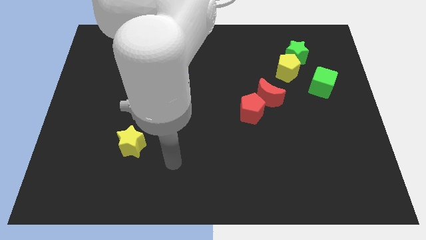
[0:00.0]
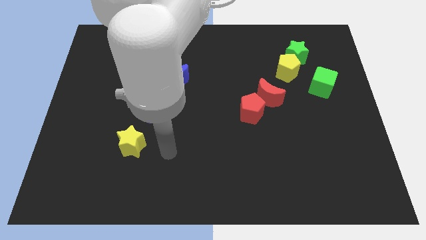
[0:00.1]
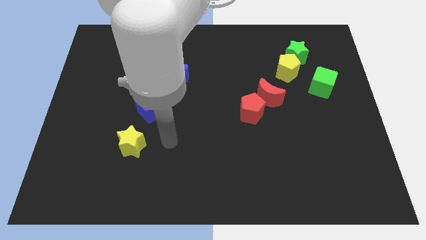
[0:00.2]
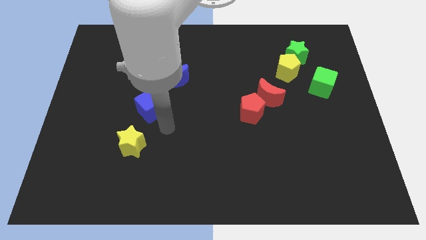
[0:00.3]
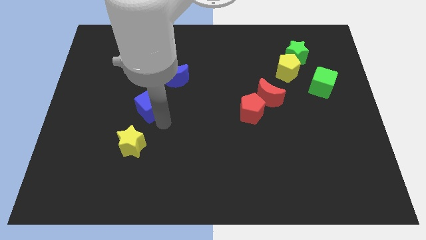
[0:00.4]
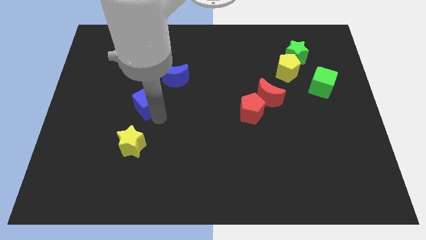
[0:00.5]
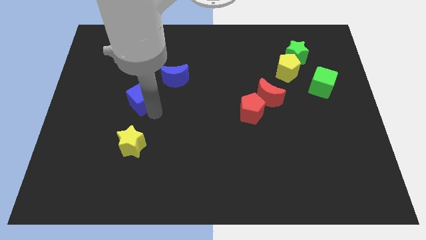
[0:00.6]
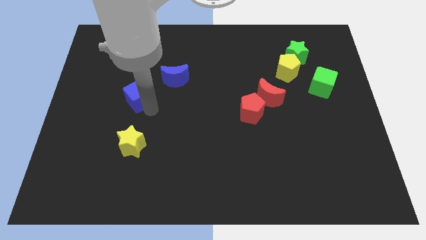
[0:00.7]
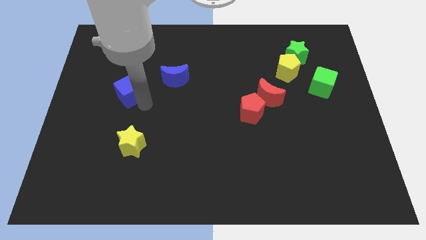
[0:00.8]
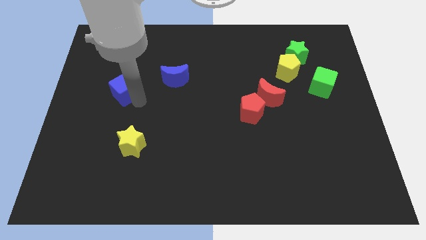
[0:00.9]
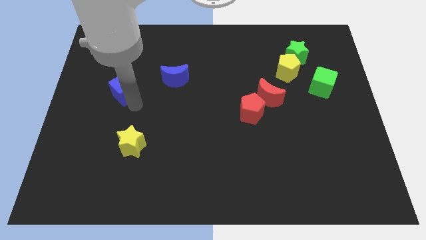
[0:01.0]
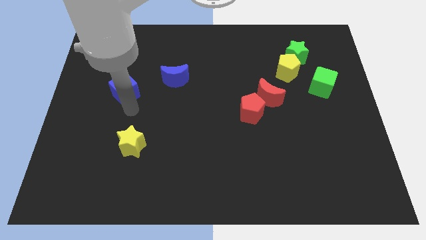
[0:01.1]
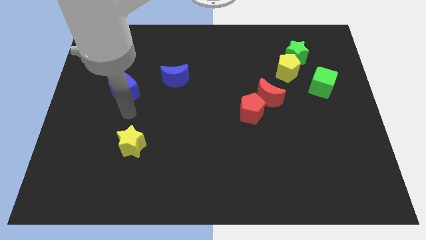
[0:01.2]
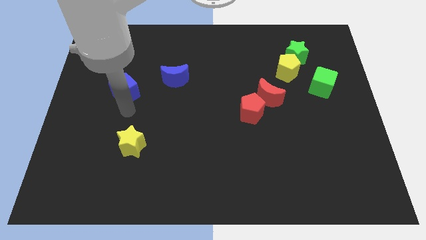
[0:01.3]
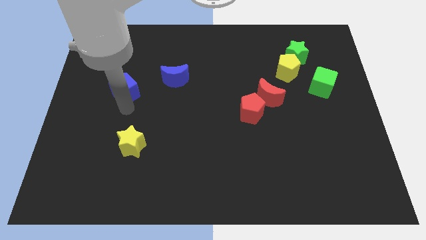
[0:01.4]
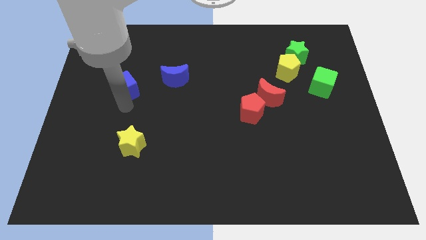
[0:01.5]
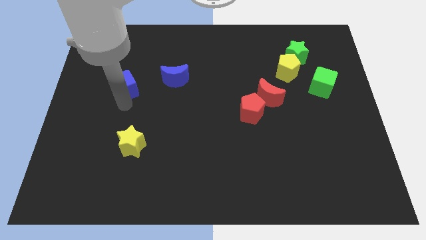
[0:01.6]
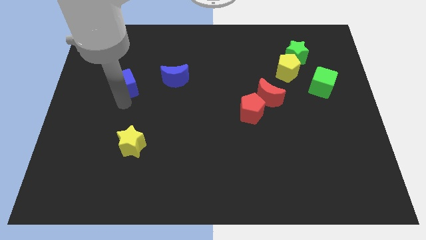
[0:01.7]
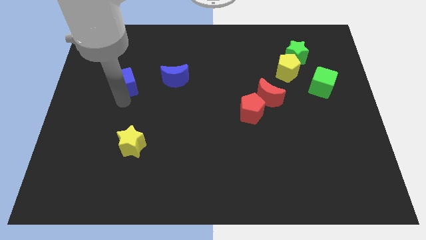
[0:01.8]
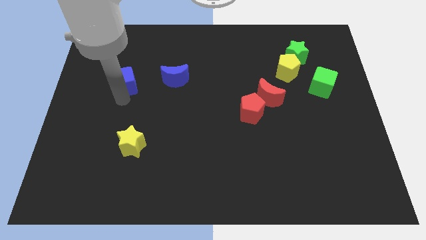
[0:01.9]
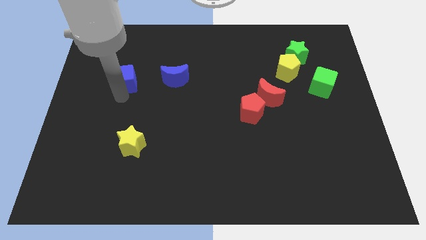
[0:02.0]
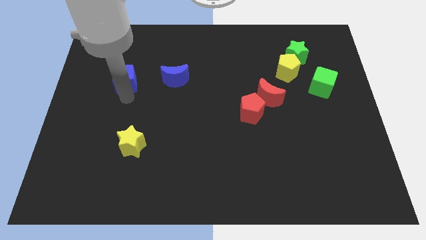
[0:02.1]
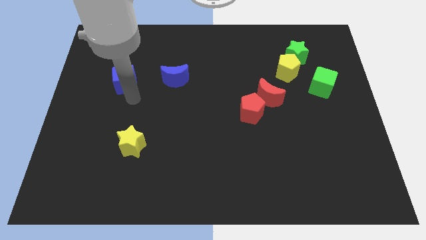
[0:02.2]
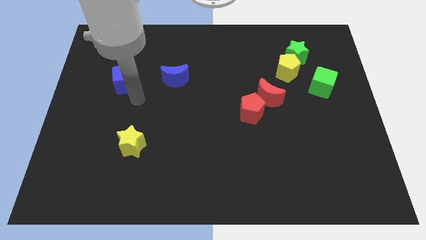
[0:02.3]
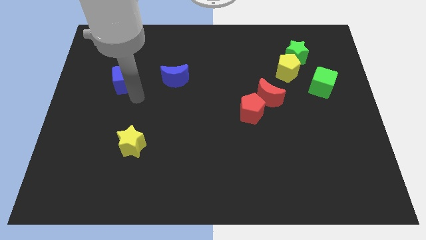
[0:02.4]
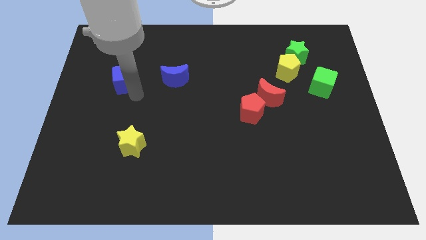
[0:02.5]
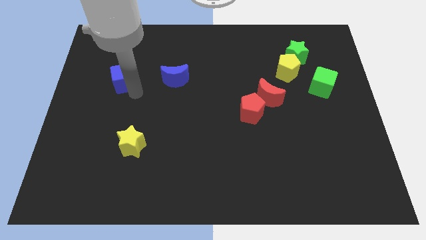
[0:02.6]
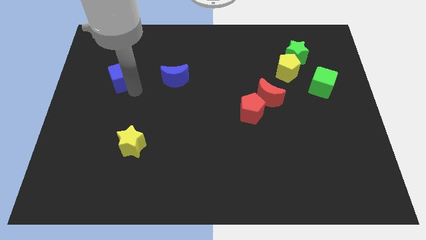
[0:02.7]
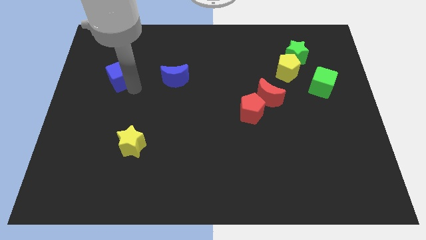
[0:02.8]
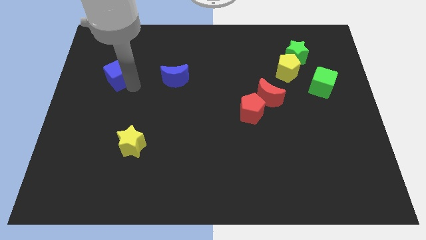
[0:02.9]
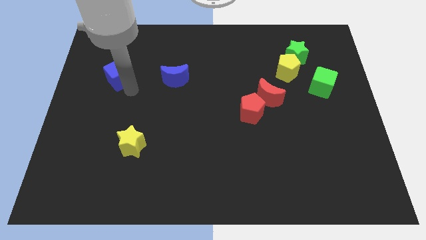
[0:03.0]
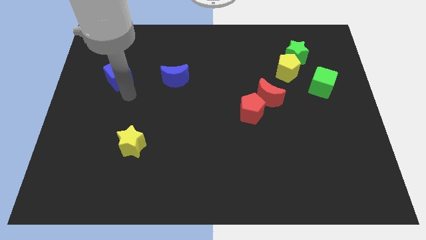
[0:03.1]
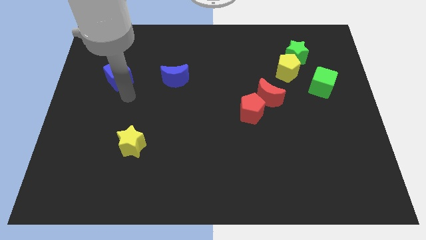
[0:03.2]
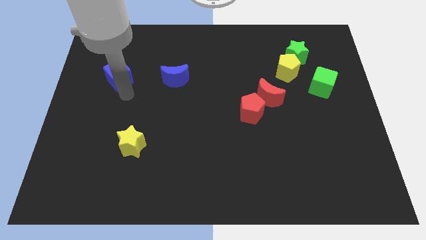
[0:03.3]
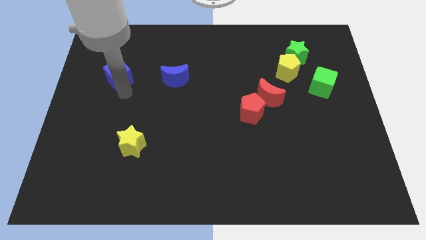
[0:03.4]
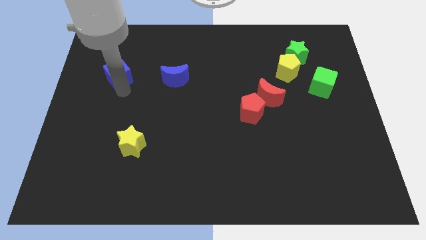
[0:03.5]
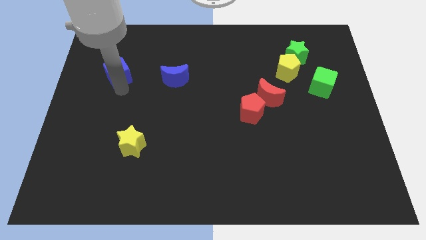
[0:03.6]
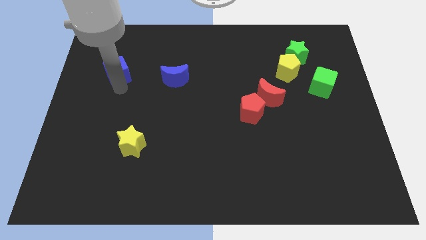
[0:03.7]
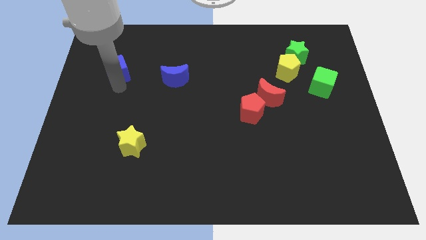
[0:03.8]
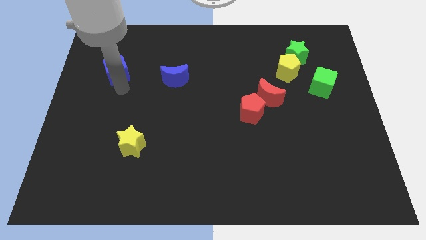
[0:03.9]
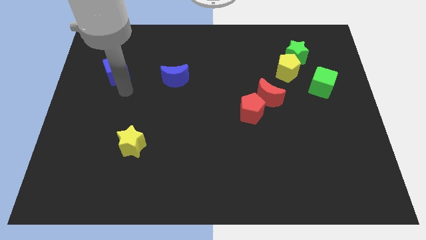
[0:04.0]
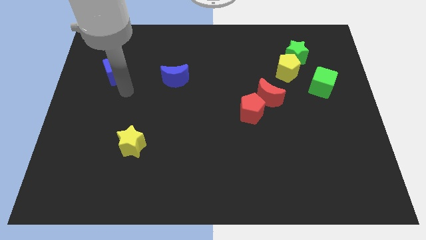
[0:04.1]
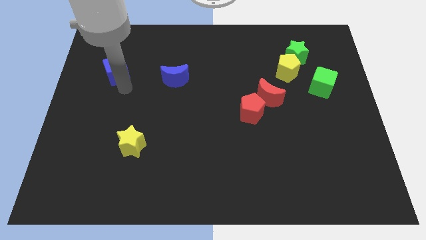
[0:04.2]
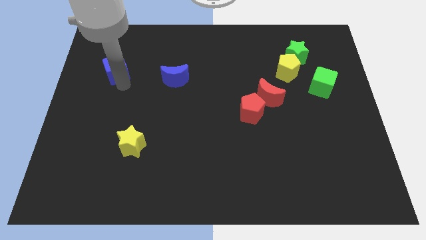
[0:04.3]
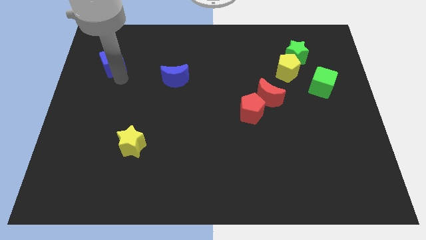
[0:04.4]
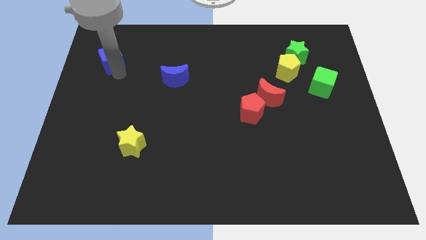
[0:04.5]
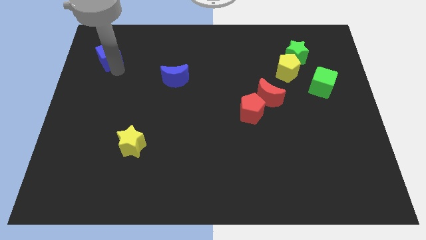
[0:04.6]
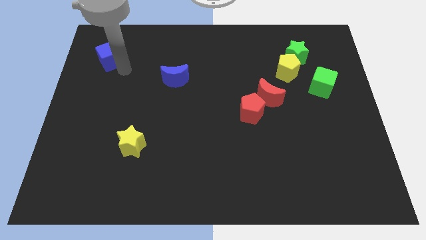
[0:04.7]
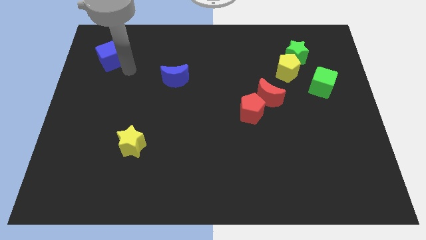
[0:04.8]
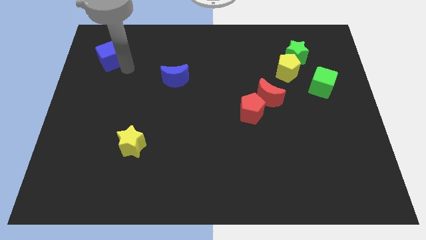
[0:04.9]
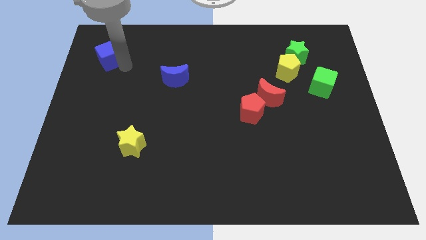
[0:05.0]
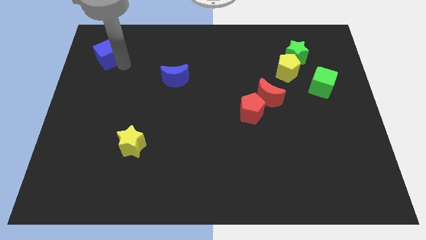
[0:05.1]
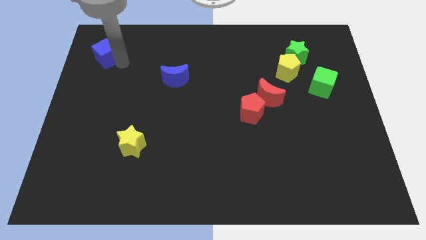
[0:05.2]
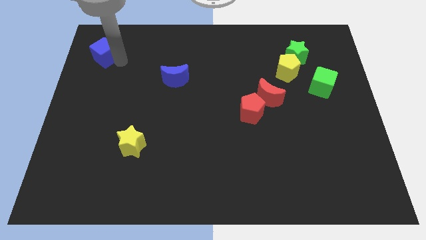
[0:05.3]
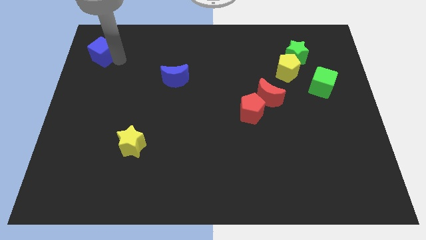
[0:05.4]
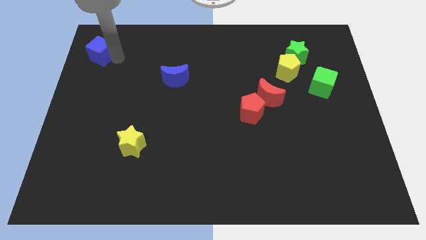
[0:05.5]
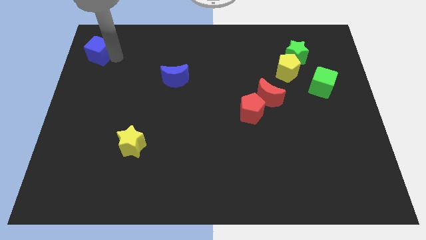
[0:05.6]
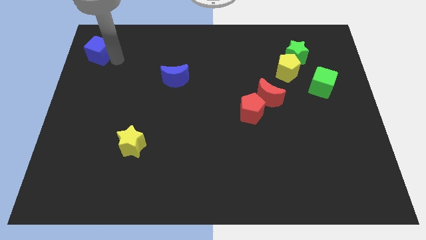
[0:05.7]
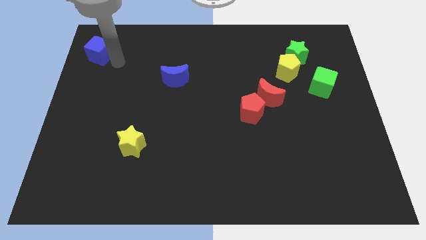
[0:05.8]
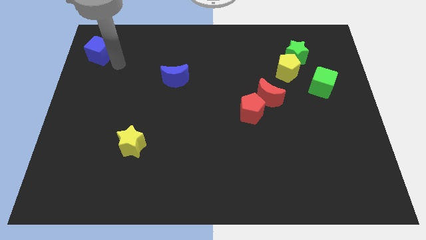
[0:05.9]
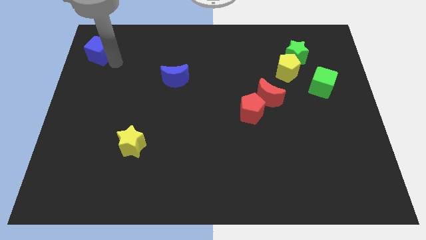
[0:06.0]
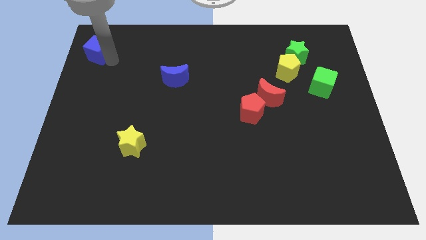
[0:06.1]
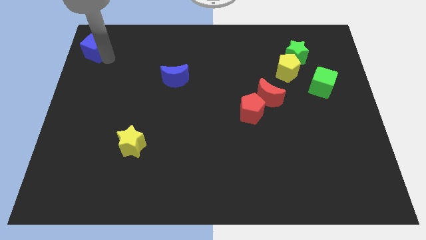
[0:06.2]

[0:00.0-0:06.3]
push the blue cube to the upper left corner

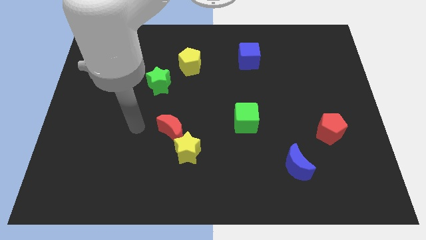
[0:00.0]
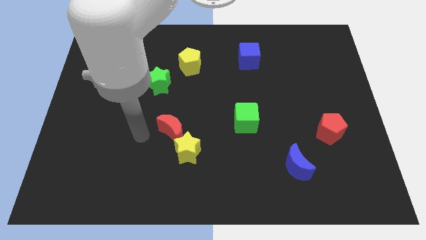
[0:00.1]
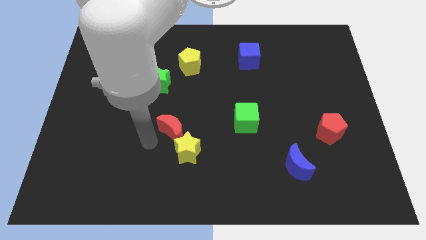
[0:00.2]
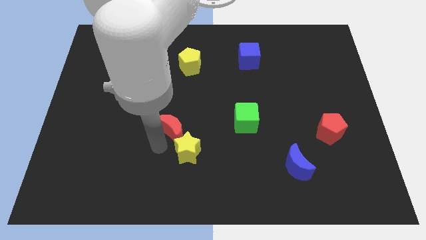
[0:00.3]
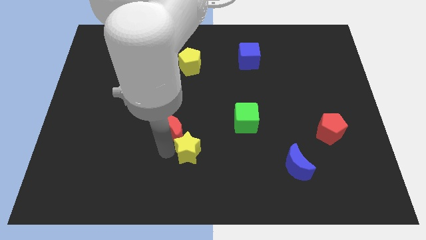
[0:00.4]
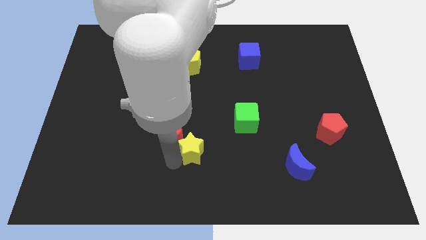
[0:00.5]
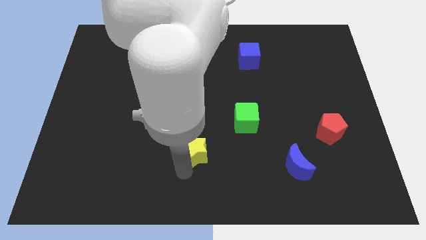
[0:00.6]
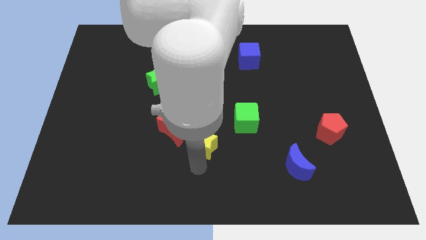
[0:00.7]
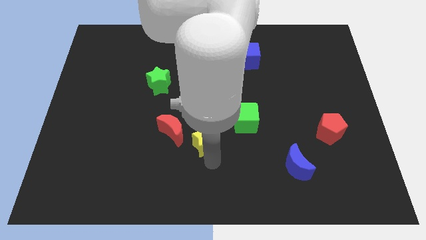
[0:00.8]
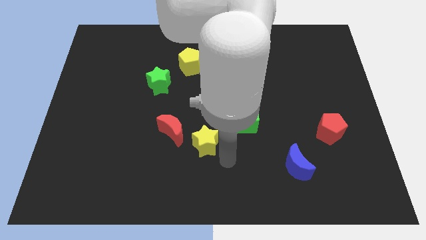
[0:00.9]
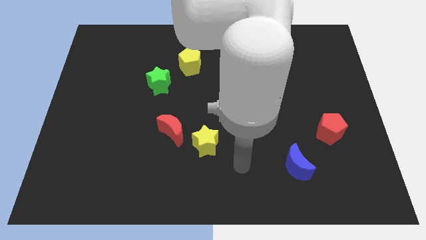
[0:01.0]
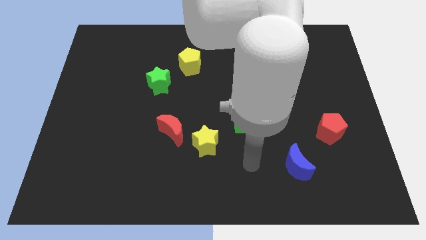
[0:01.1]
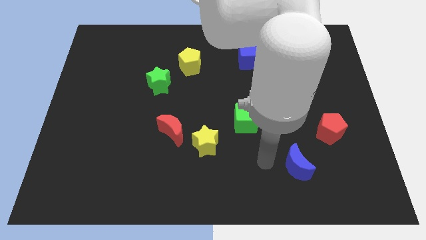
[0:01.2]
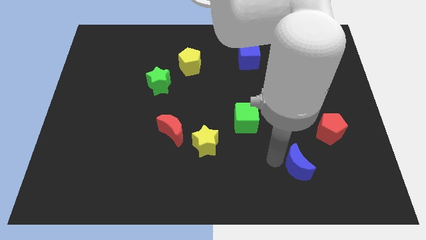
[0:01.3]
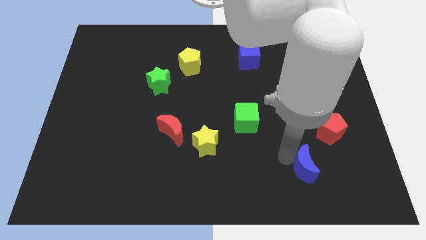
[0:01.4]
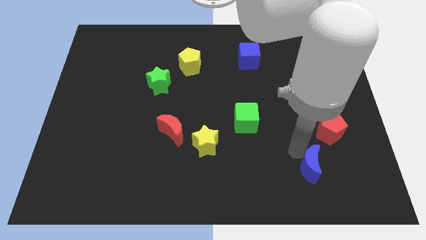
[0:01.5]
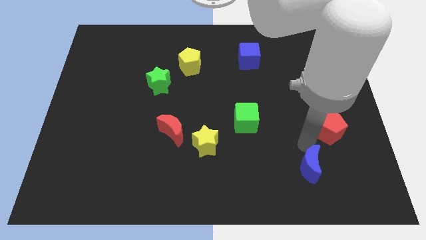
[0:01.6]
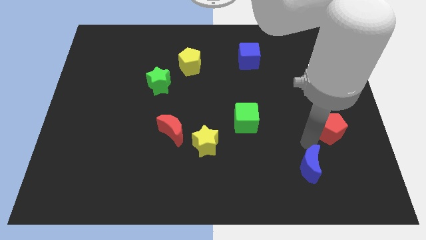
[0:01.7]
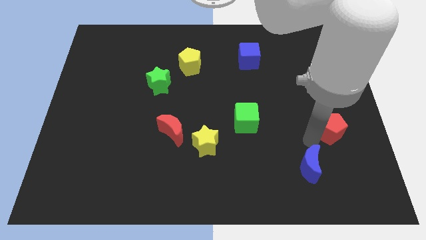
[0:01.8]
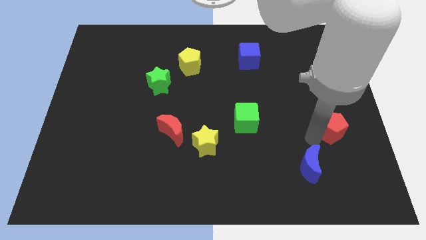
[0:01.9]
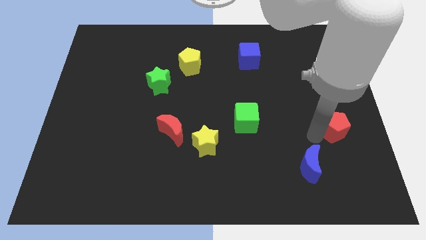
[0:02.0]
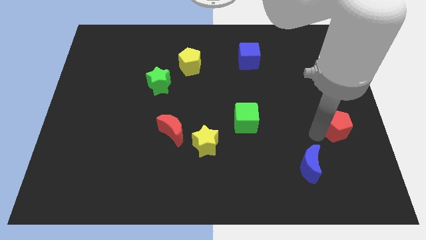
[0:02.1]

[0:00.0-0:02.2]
push the red pentagon to the center right
